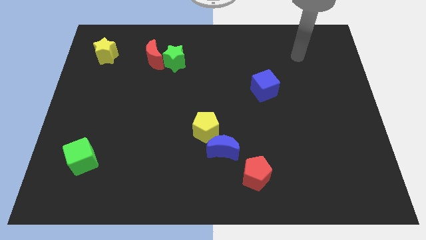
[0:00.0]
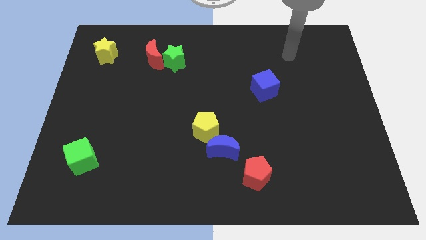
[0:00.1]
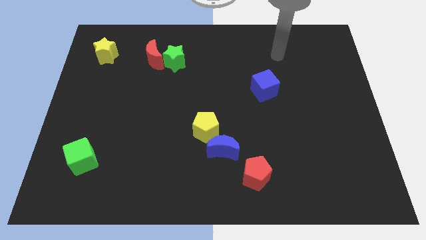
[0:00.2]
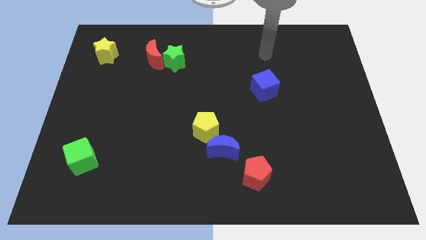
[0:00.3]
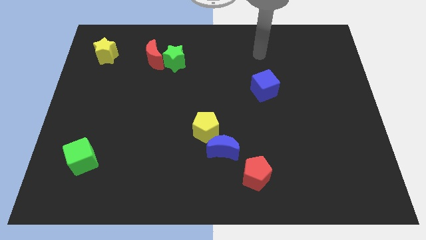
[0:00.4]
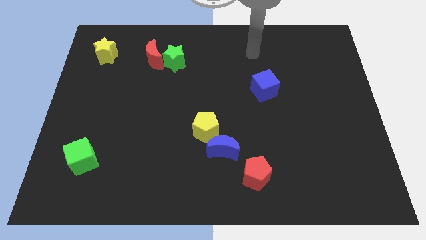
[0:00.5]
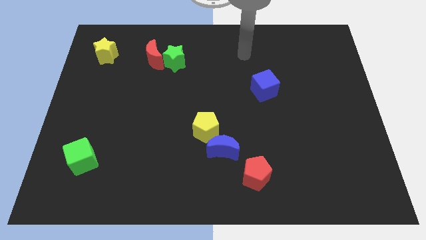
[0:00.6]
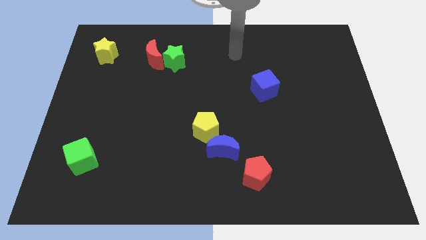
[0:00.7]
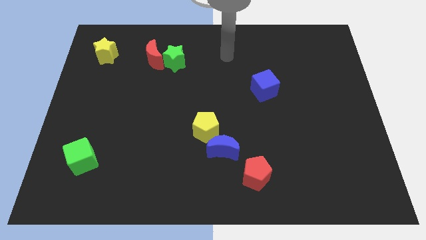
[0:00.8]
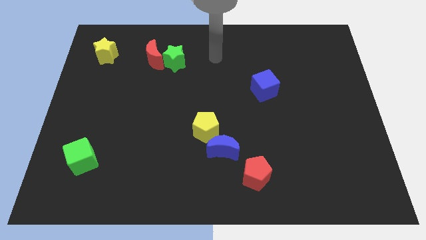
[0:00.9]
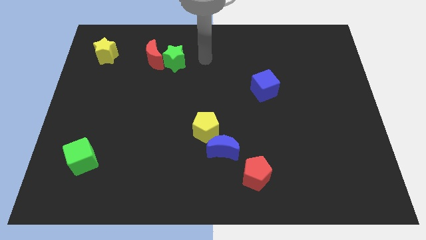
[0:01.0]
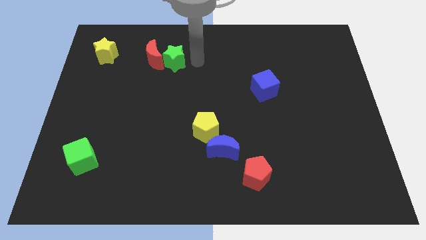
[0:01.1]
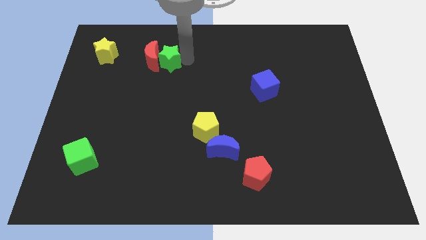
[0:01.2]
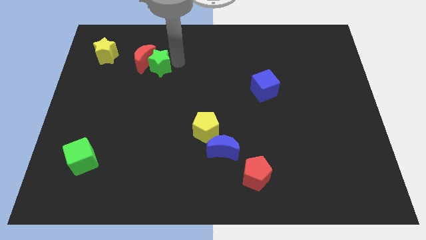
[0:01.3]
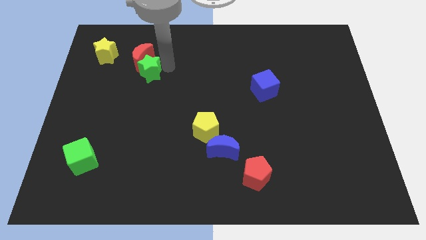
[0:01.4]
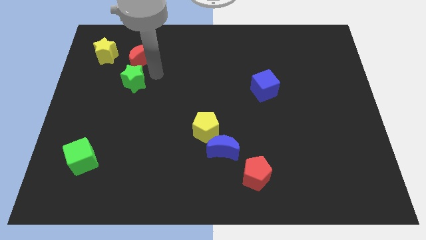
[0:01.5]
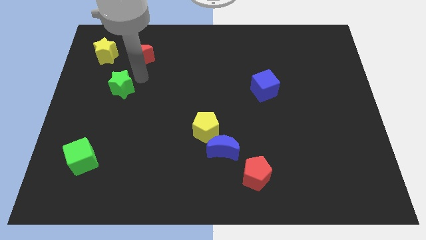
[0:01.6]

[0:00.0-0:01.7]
pull the red moon apart from the green star

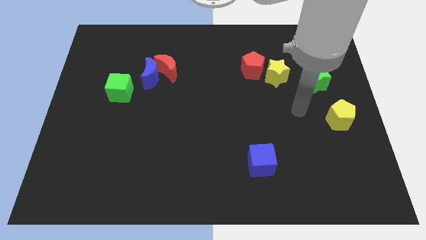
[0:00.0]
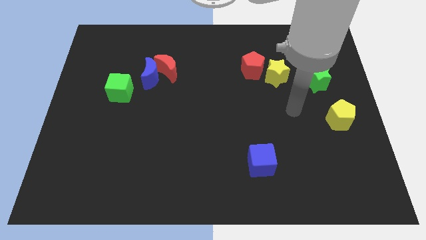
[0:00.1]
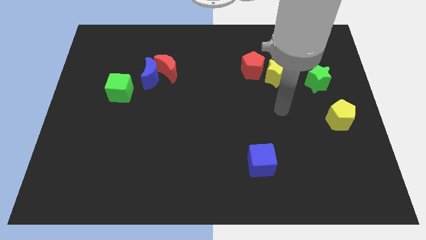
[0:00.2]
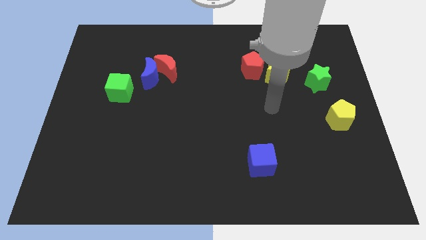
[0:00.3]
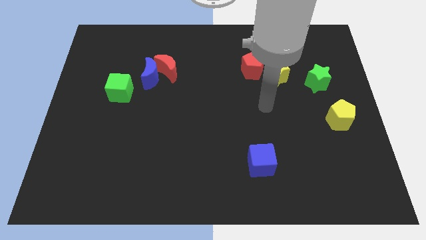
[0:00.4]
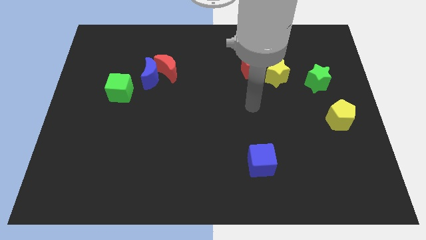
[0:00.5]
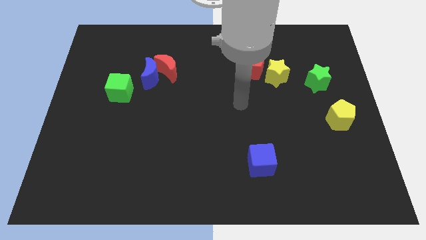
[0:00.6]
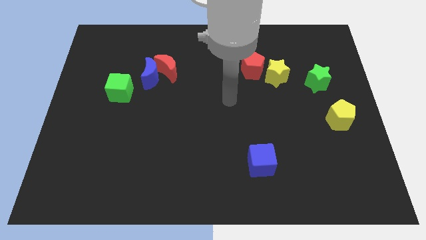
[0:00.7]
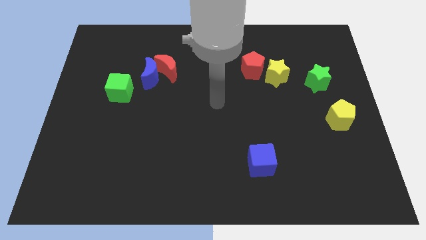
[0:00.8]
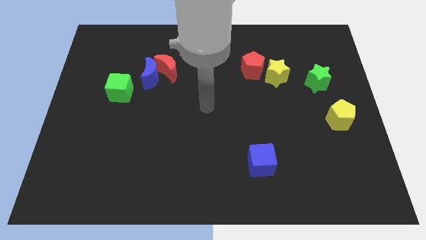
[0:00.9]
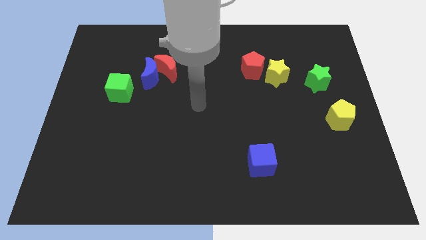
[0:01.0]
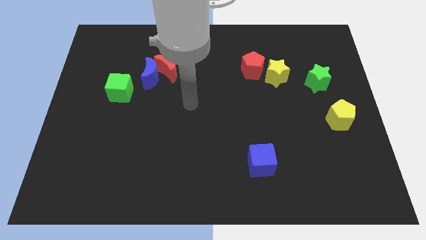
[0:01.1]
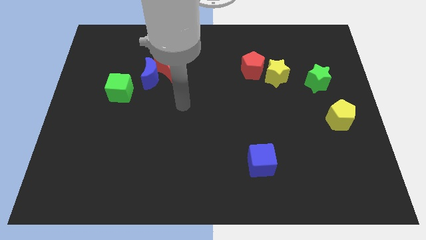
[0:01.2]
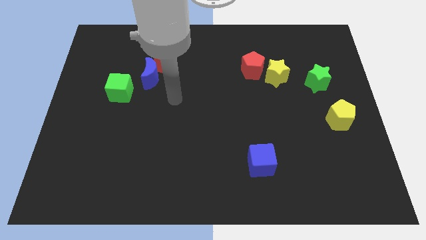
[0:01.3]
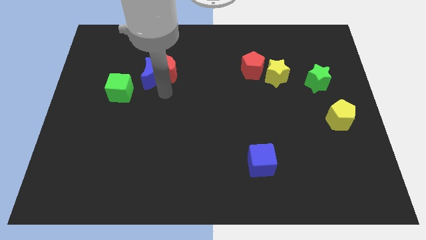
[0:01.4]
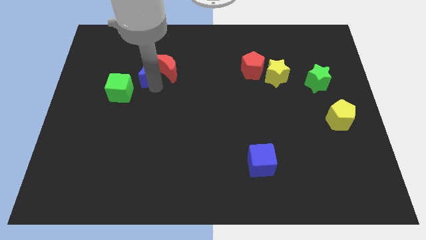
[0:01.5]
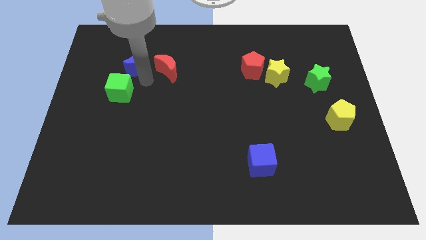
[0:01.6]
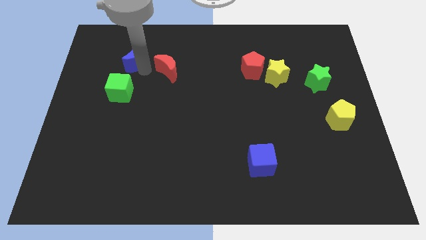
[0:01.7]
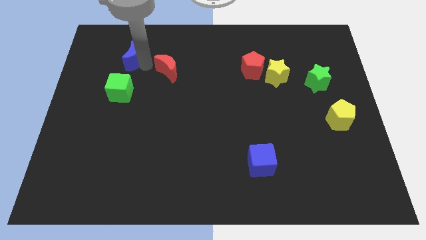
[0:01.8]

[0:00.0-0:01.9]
pull the red moon apart from the blue moon

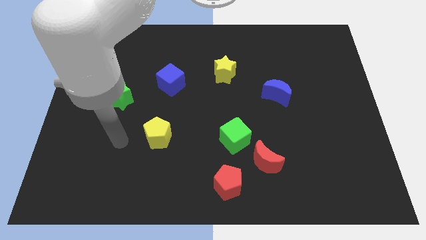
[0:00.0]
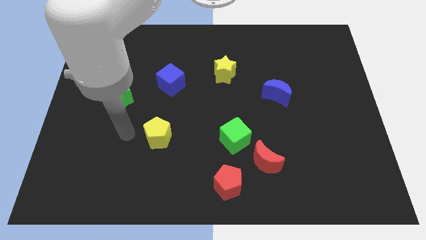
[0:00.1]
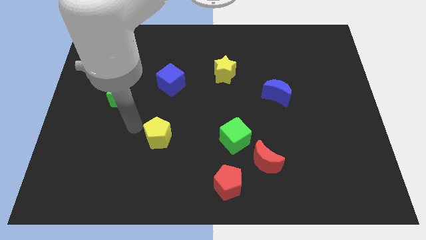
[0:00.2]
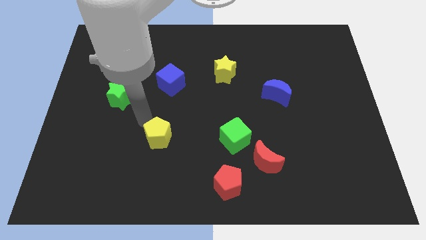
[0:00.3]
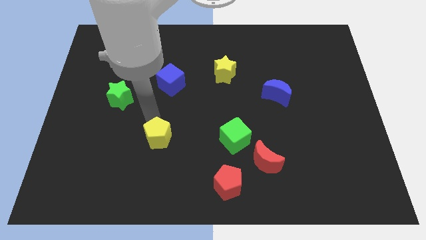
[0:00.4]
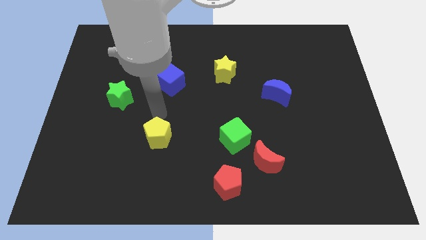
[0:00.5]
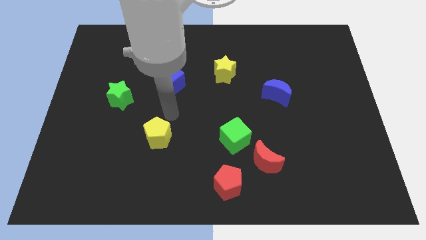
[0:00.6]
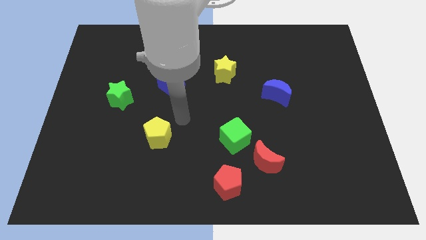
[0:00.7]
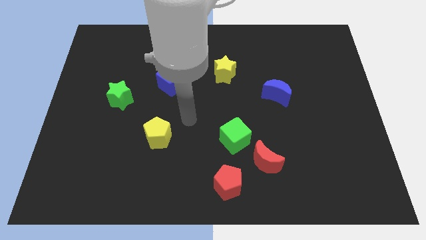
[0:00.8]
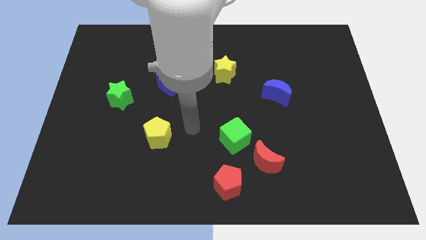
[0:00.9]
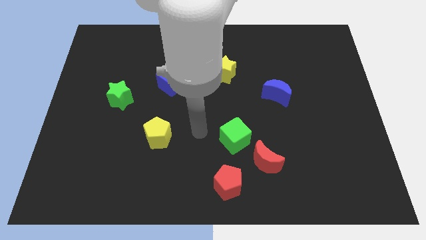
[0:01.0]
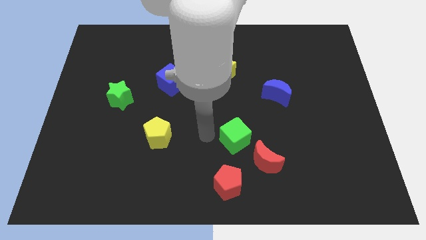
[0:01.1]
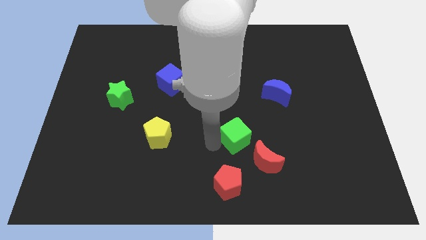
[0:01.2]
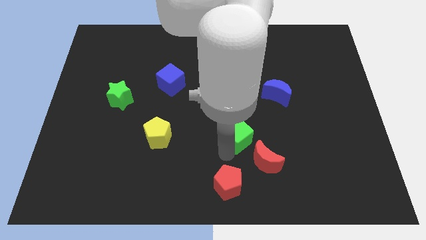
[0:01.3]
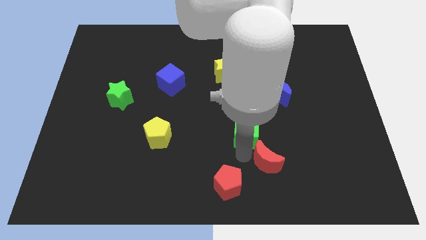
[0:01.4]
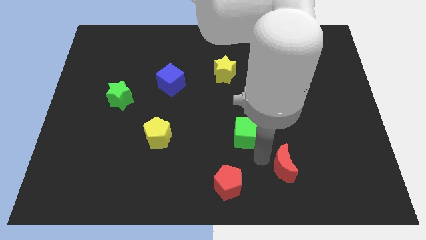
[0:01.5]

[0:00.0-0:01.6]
pull the green cube apart from the red moon

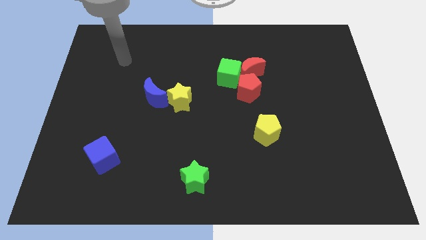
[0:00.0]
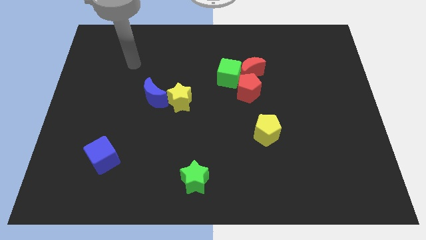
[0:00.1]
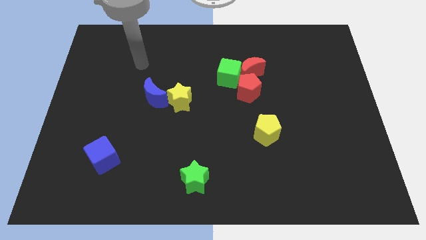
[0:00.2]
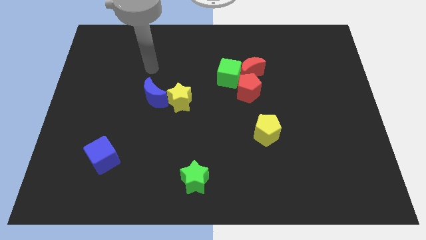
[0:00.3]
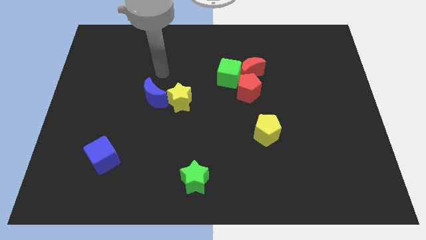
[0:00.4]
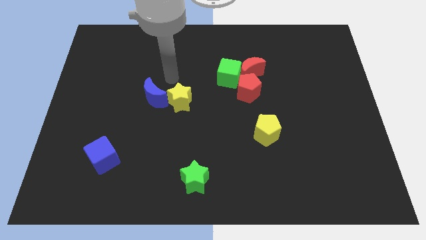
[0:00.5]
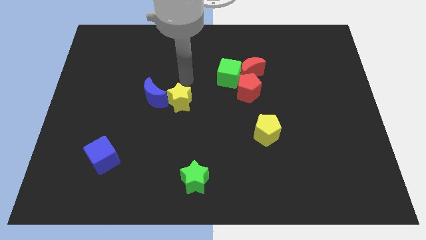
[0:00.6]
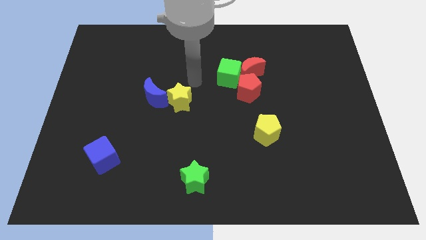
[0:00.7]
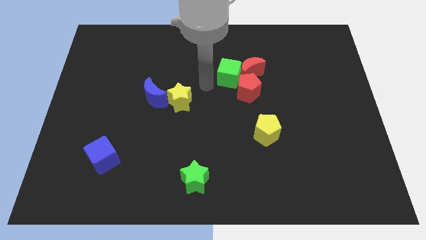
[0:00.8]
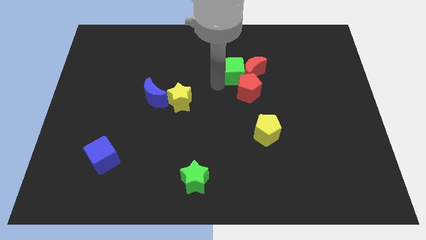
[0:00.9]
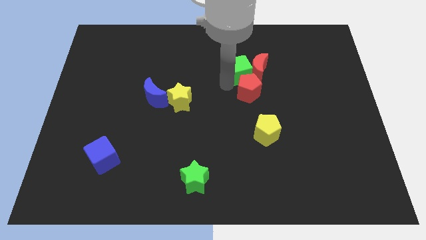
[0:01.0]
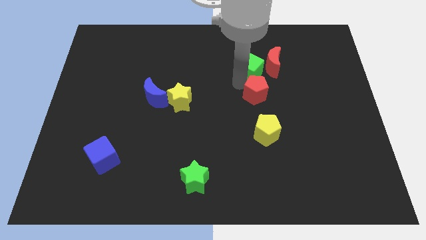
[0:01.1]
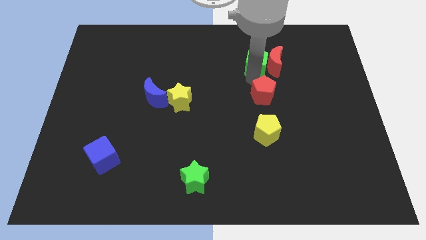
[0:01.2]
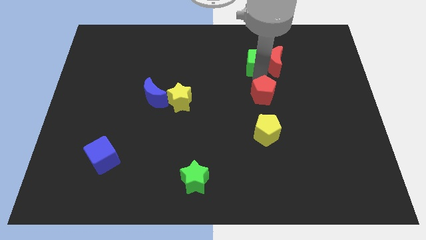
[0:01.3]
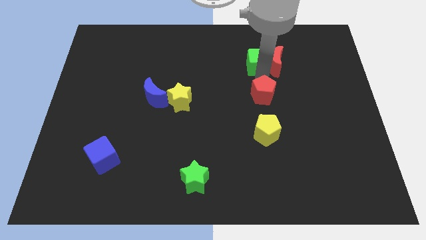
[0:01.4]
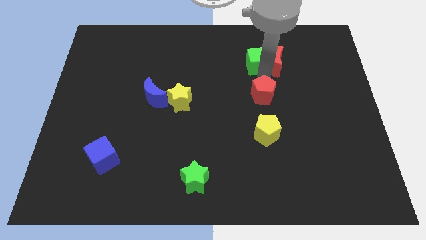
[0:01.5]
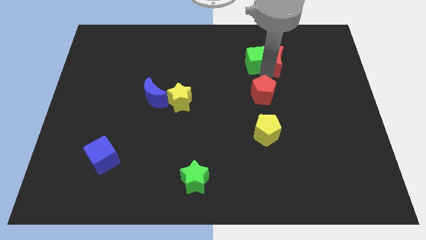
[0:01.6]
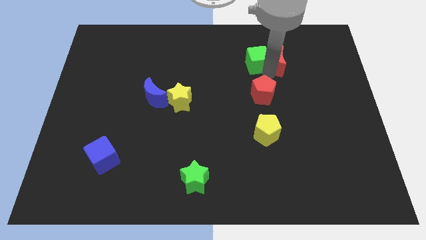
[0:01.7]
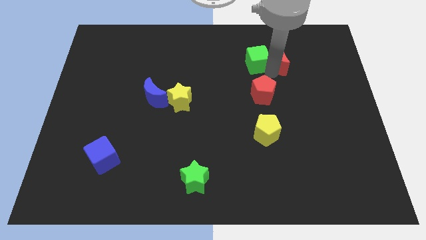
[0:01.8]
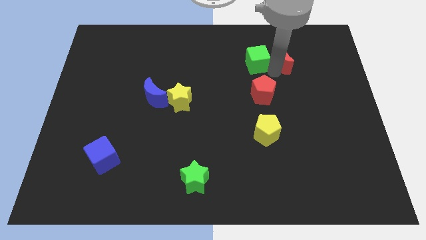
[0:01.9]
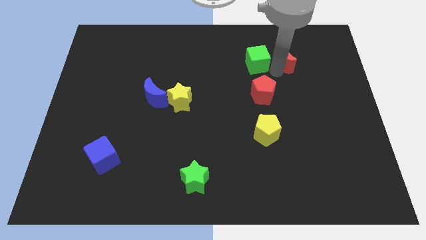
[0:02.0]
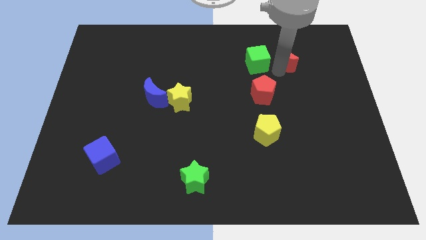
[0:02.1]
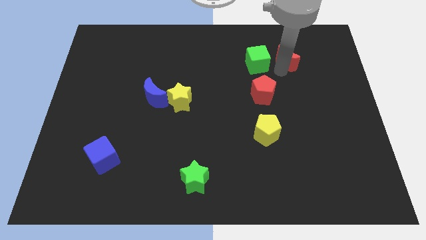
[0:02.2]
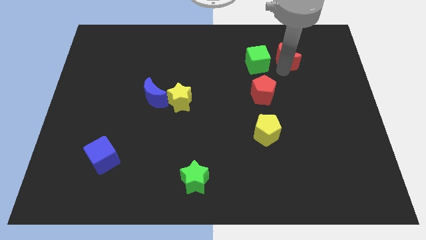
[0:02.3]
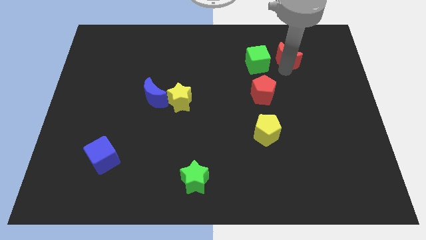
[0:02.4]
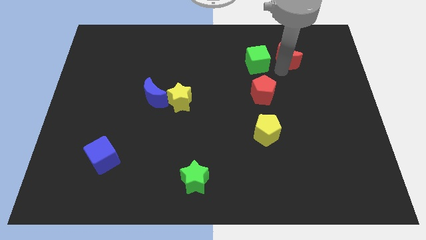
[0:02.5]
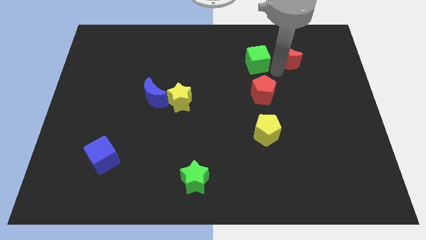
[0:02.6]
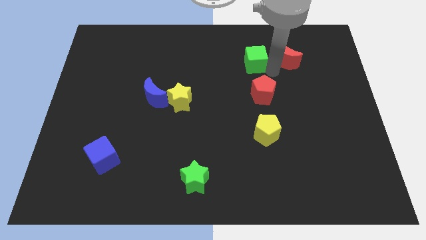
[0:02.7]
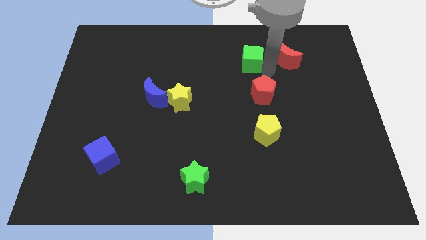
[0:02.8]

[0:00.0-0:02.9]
move the red moon away from the green cube and red pentagon

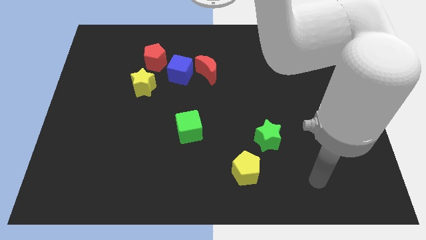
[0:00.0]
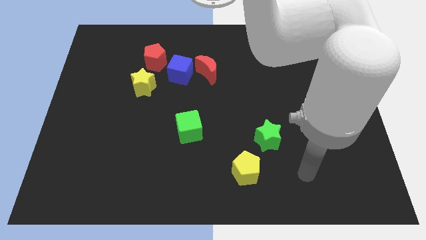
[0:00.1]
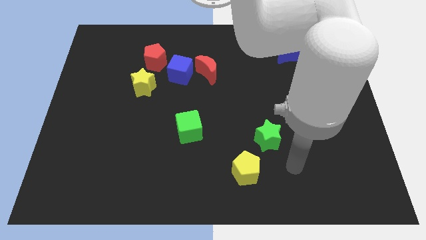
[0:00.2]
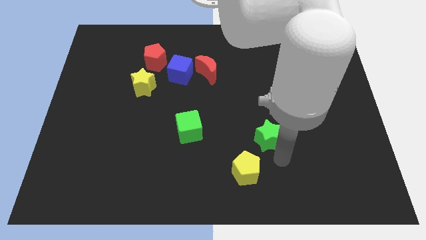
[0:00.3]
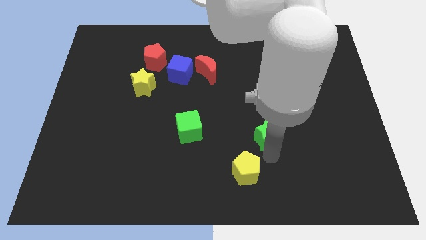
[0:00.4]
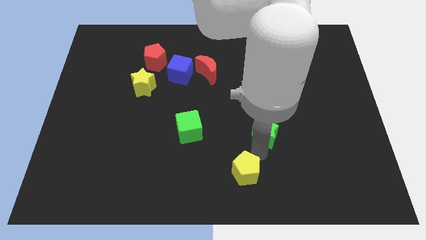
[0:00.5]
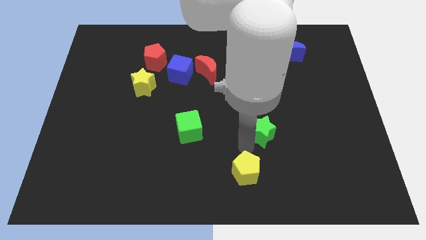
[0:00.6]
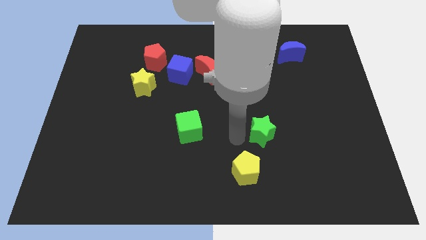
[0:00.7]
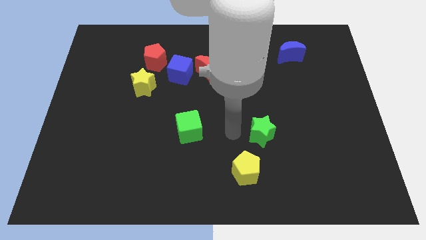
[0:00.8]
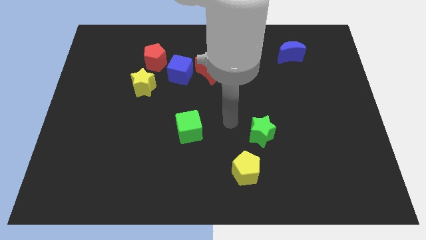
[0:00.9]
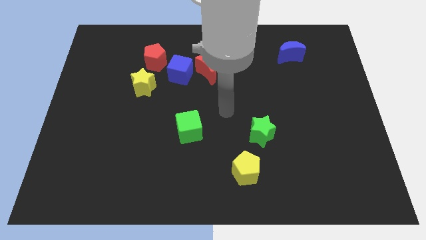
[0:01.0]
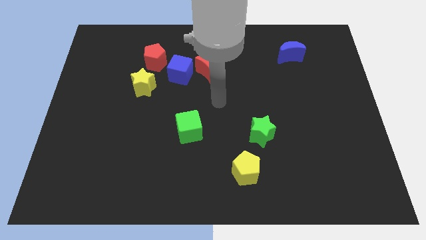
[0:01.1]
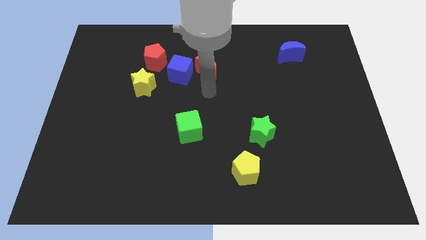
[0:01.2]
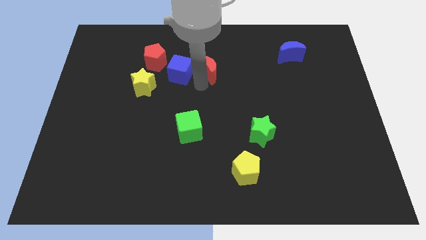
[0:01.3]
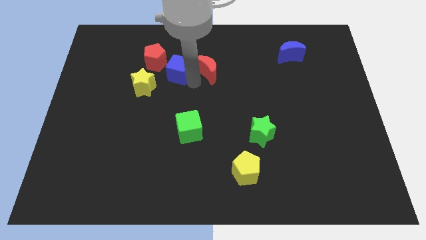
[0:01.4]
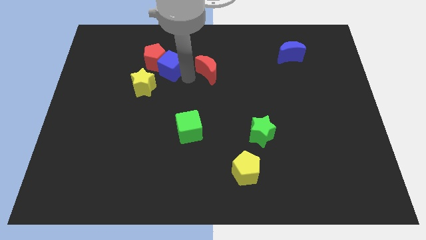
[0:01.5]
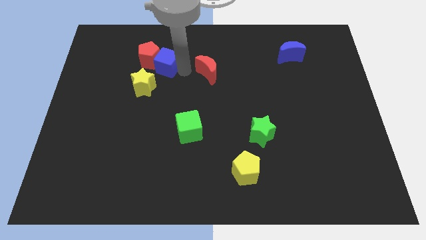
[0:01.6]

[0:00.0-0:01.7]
pull the red moon apart from the blue cube
